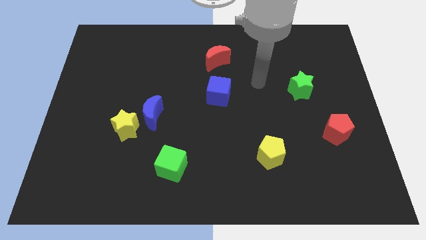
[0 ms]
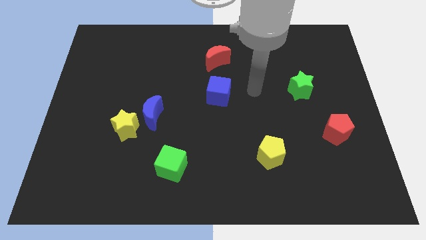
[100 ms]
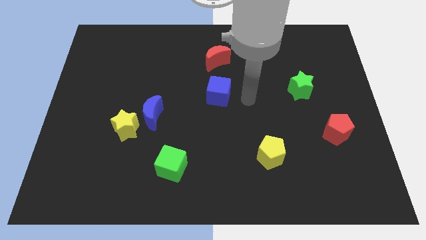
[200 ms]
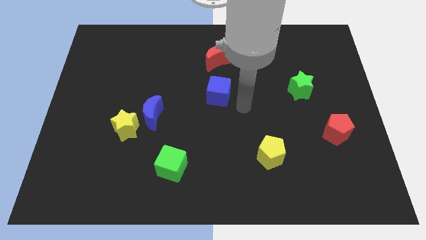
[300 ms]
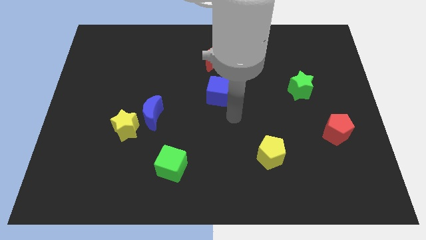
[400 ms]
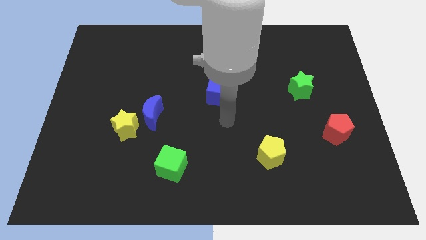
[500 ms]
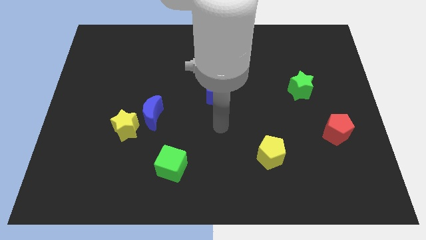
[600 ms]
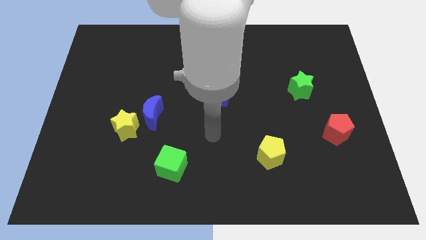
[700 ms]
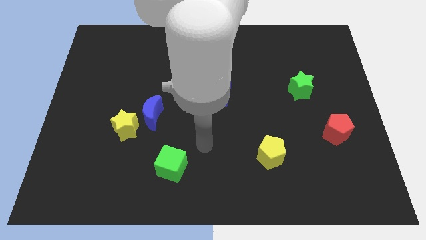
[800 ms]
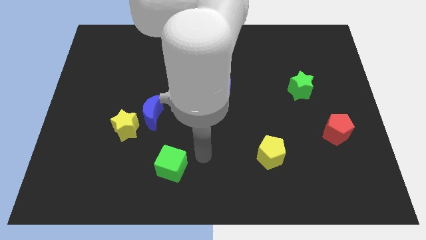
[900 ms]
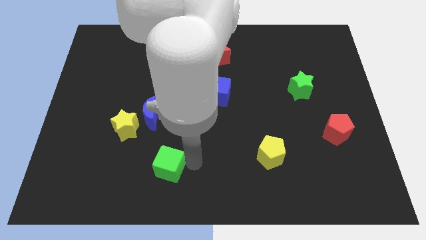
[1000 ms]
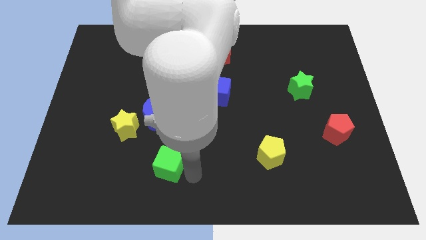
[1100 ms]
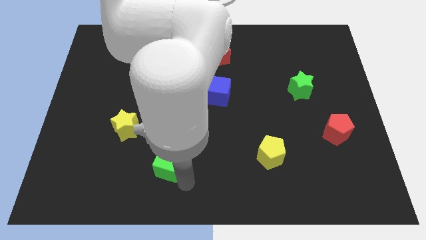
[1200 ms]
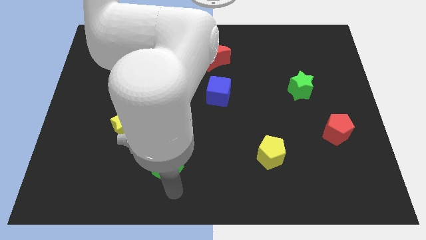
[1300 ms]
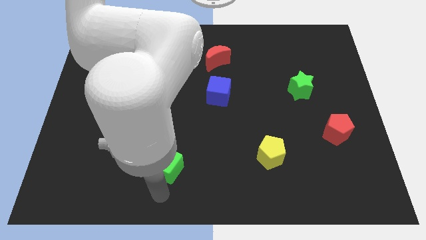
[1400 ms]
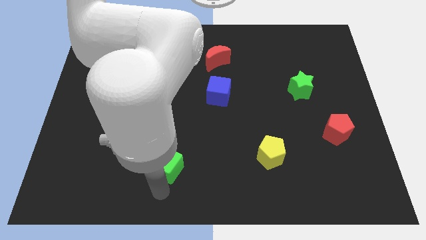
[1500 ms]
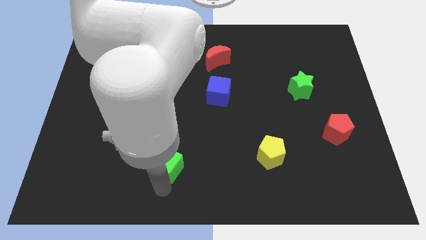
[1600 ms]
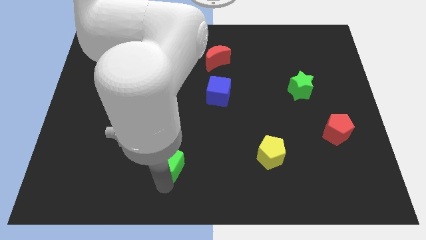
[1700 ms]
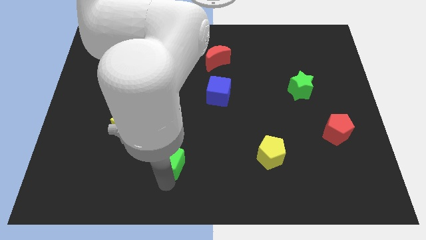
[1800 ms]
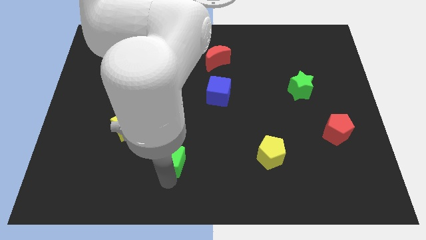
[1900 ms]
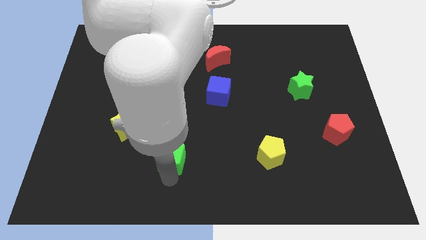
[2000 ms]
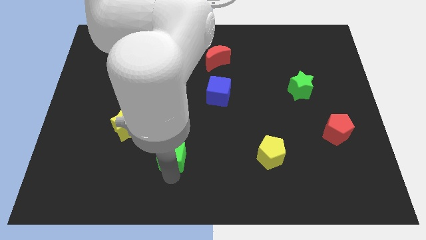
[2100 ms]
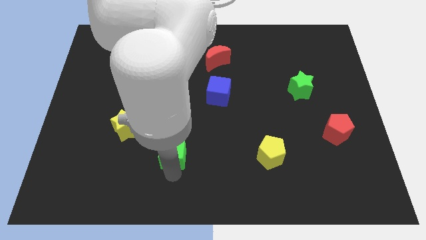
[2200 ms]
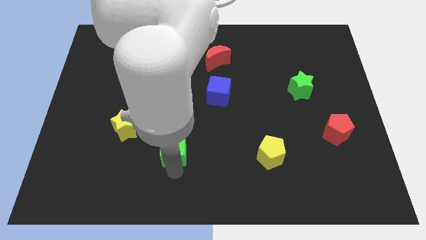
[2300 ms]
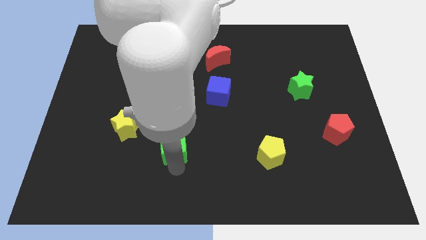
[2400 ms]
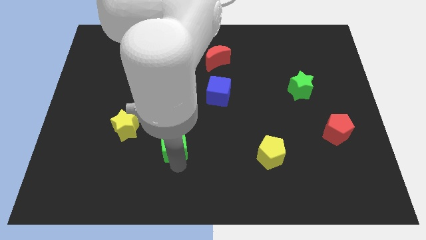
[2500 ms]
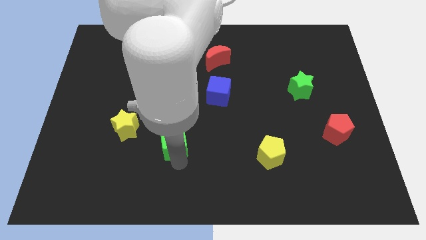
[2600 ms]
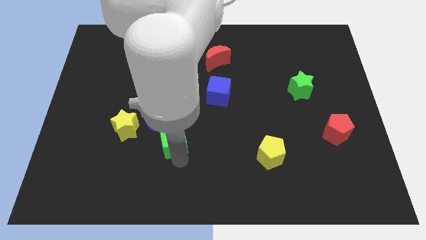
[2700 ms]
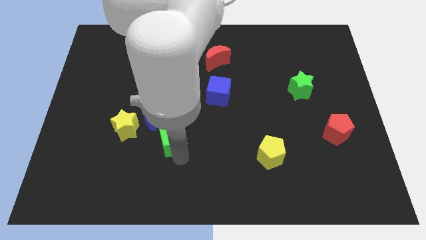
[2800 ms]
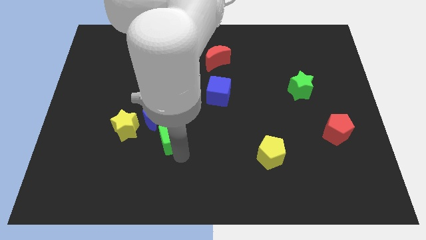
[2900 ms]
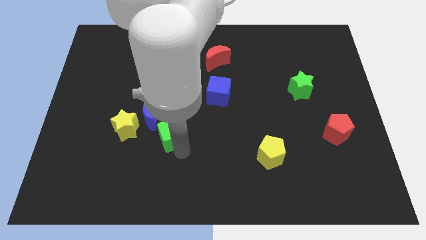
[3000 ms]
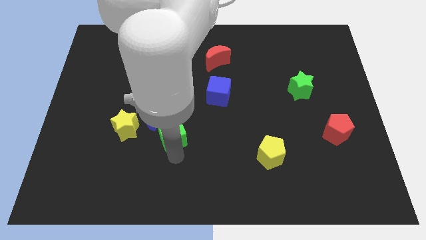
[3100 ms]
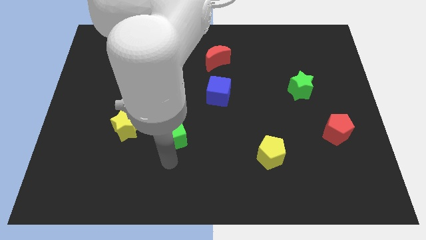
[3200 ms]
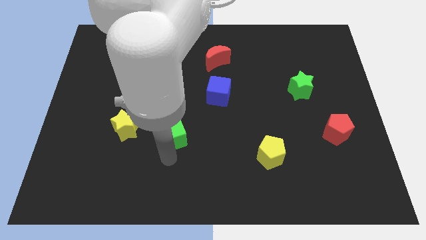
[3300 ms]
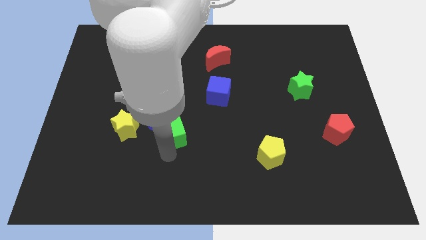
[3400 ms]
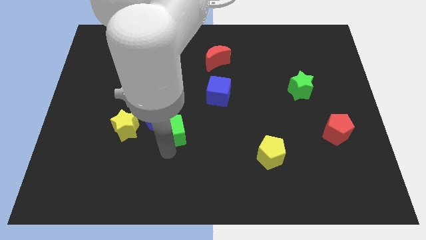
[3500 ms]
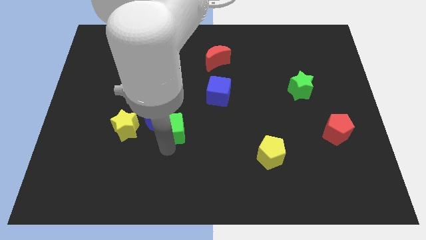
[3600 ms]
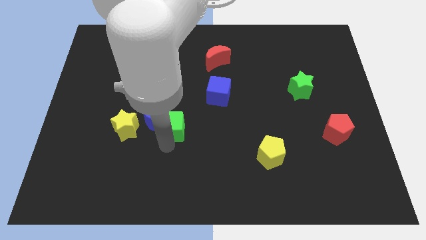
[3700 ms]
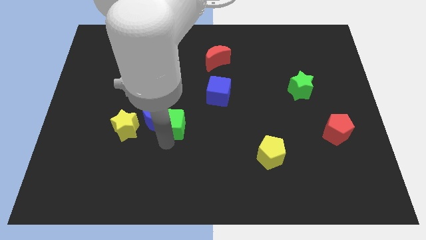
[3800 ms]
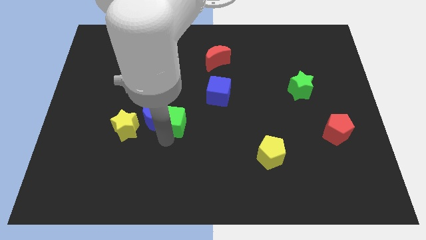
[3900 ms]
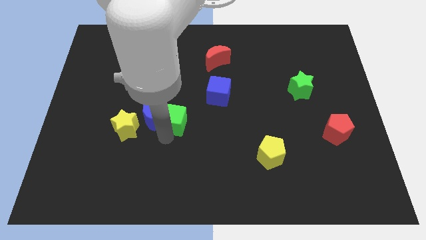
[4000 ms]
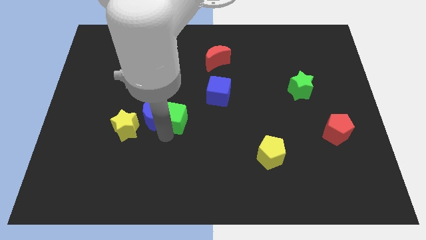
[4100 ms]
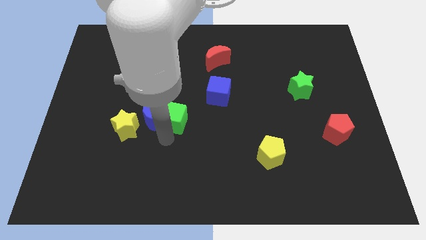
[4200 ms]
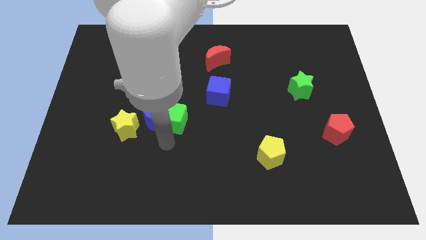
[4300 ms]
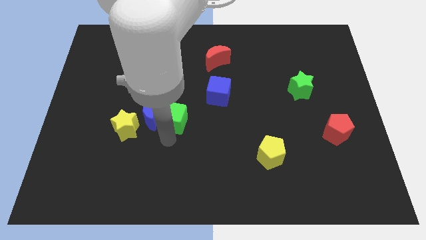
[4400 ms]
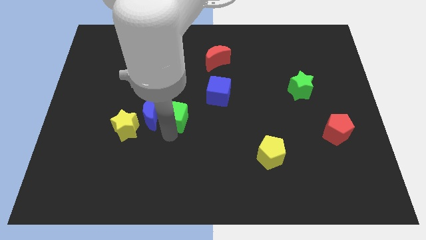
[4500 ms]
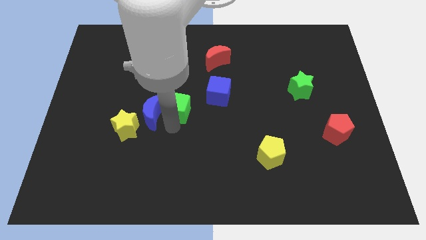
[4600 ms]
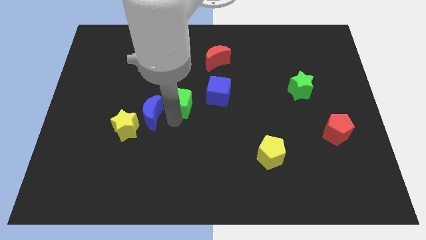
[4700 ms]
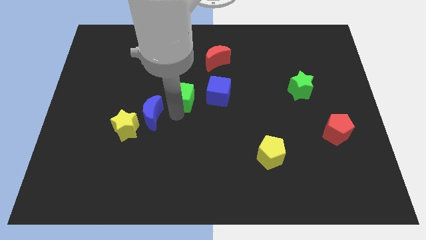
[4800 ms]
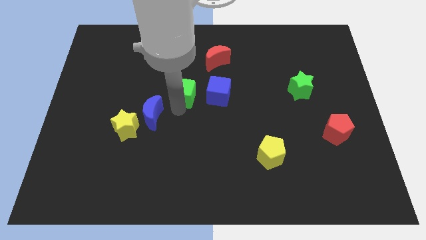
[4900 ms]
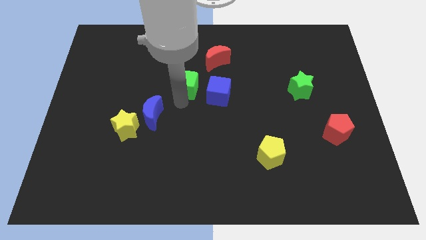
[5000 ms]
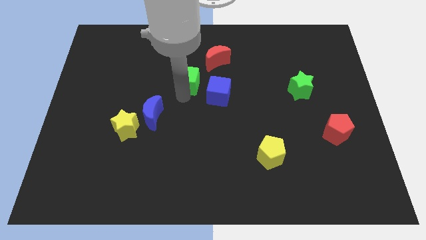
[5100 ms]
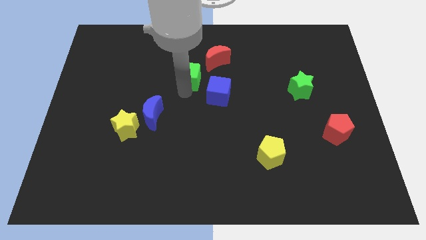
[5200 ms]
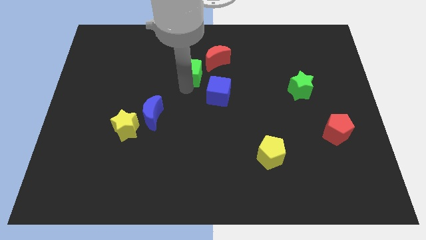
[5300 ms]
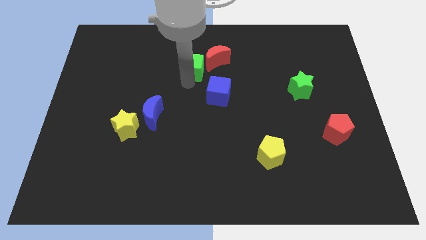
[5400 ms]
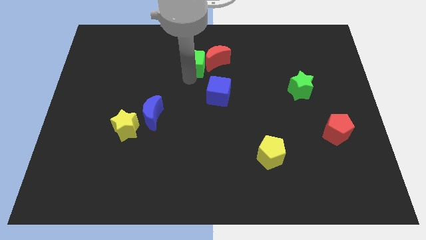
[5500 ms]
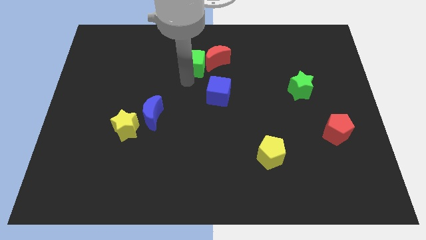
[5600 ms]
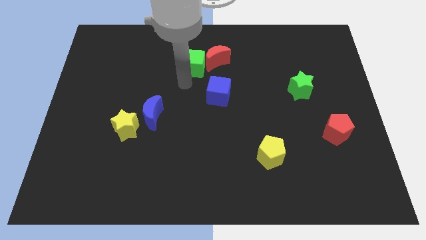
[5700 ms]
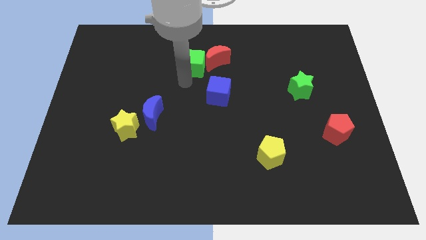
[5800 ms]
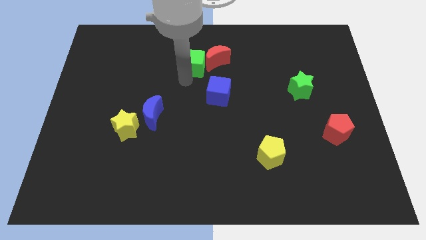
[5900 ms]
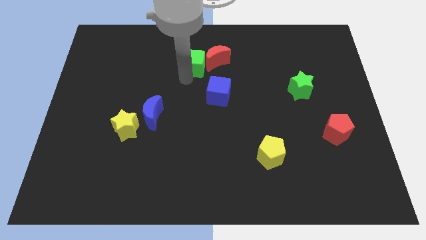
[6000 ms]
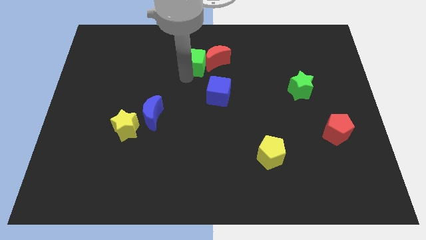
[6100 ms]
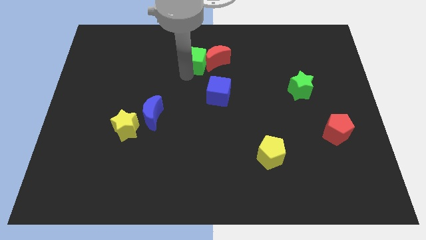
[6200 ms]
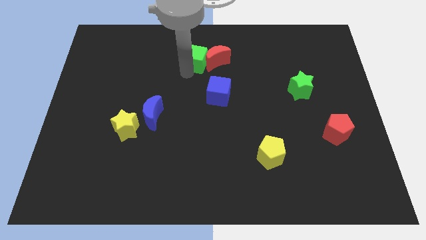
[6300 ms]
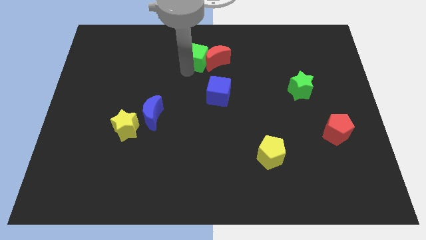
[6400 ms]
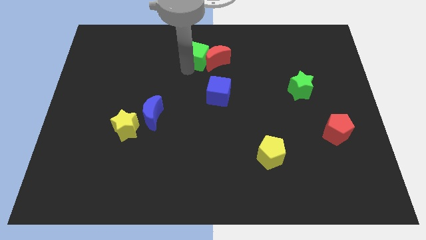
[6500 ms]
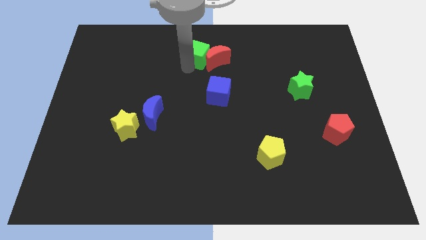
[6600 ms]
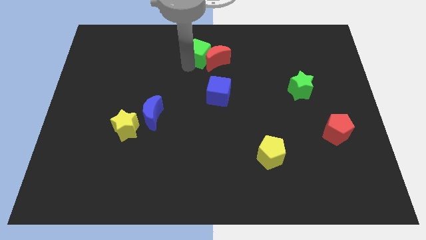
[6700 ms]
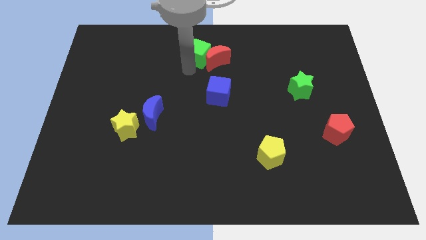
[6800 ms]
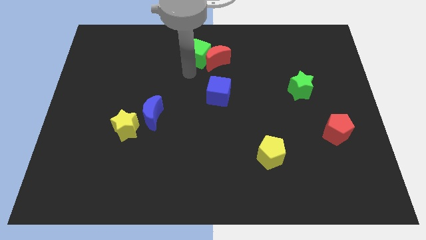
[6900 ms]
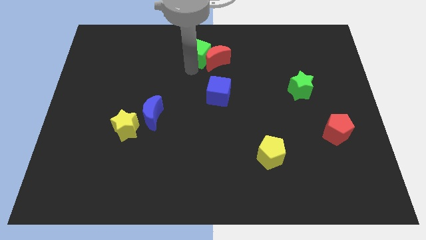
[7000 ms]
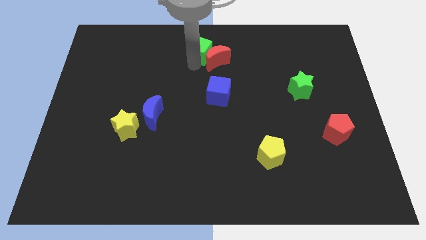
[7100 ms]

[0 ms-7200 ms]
slide the green cube to the top side
